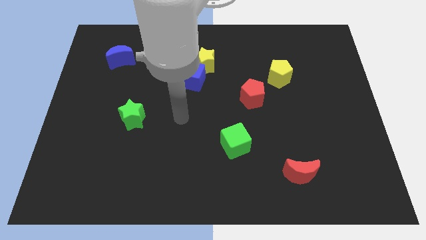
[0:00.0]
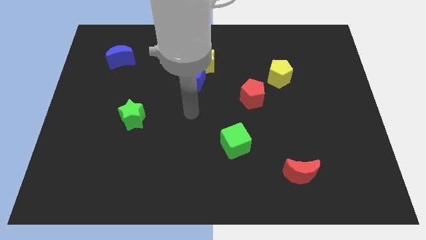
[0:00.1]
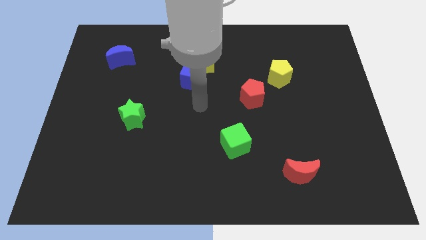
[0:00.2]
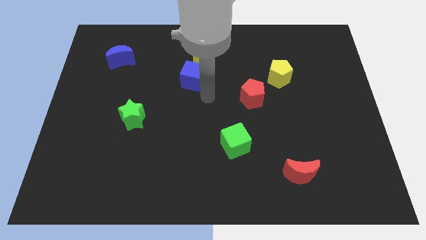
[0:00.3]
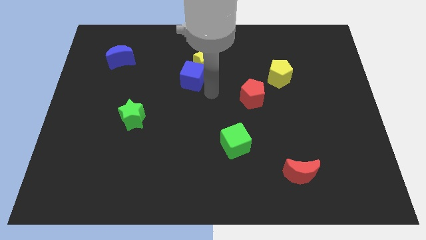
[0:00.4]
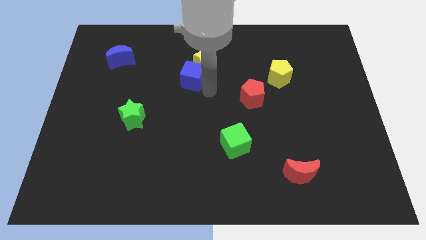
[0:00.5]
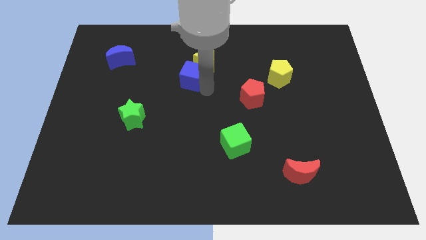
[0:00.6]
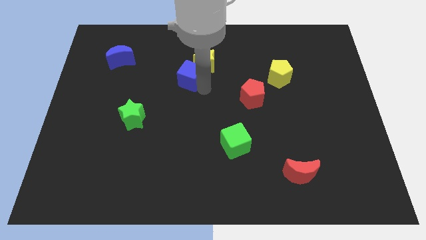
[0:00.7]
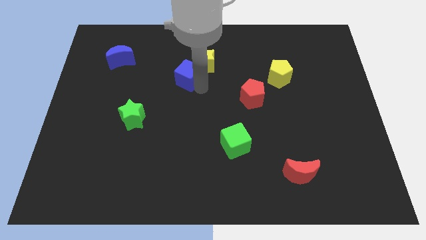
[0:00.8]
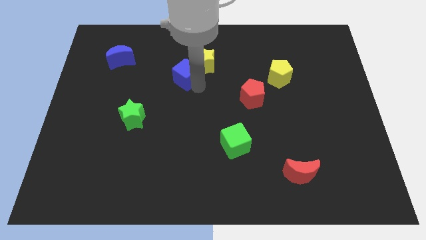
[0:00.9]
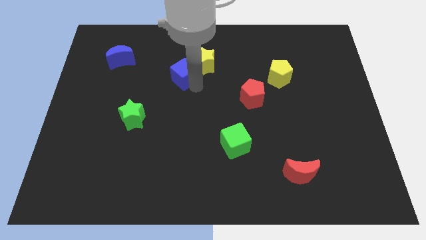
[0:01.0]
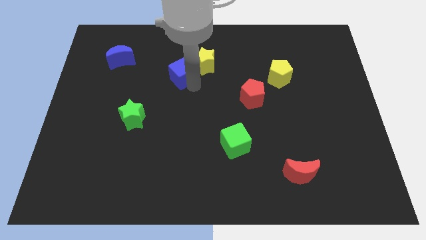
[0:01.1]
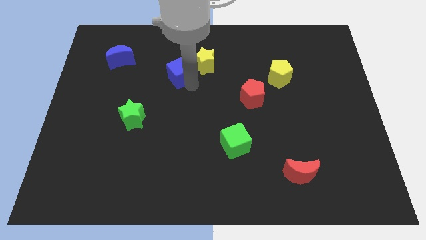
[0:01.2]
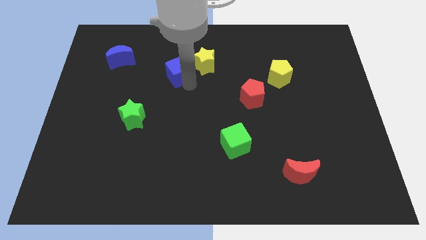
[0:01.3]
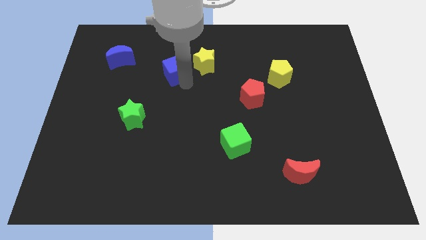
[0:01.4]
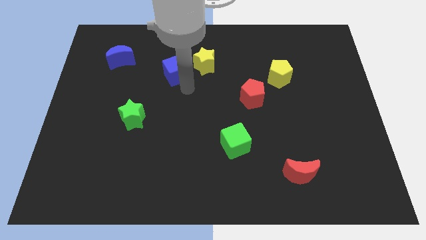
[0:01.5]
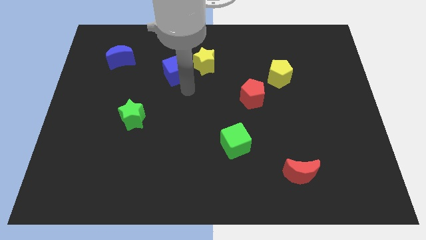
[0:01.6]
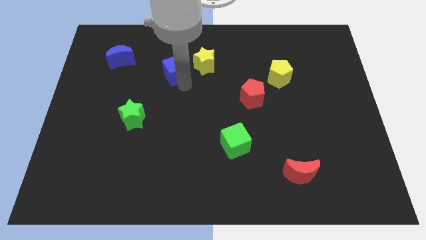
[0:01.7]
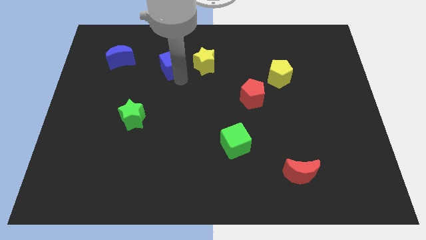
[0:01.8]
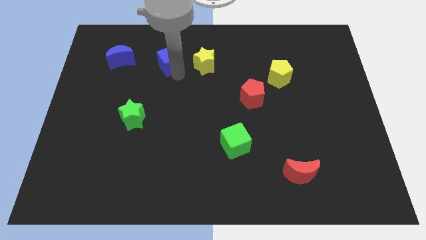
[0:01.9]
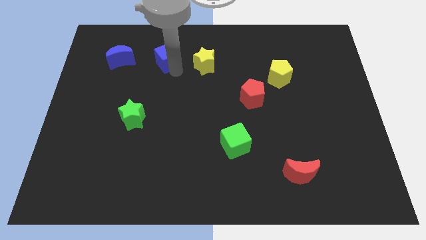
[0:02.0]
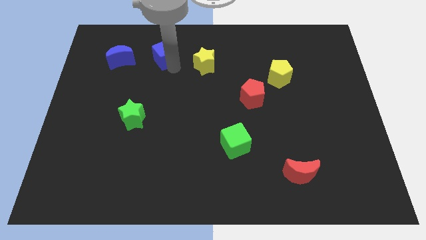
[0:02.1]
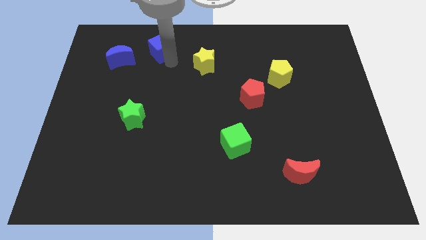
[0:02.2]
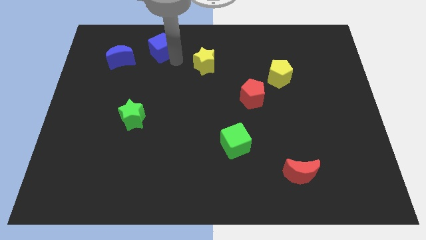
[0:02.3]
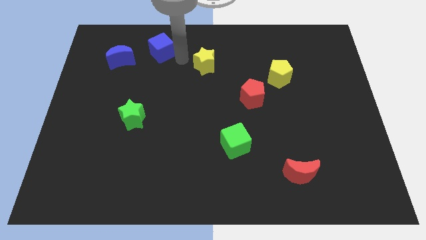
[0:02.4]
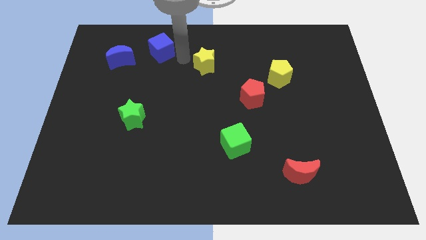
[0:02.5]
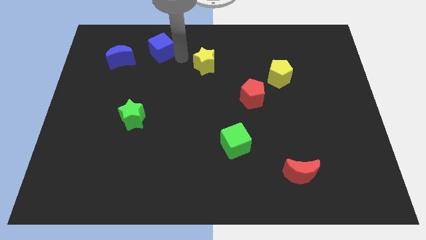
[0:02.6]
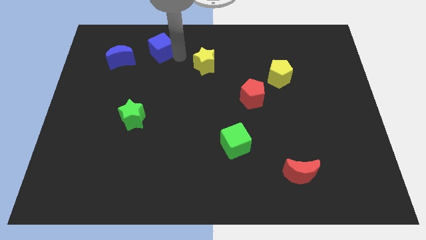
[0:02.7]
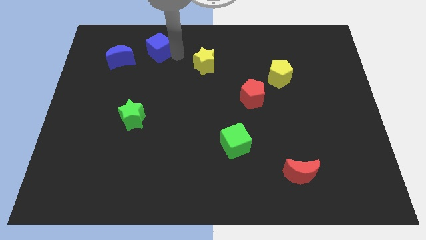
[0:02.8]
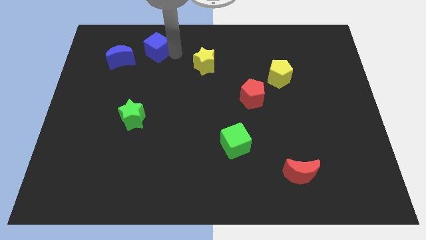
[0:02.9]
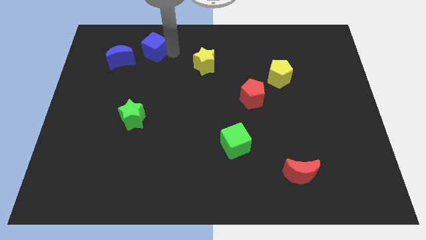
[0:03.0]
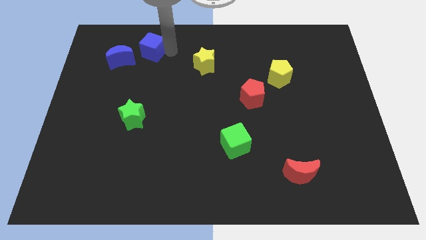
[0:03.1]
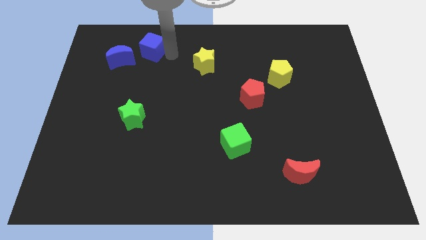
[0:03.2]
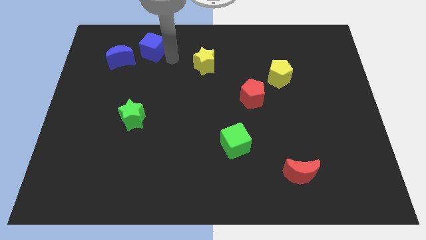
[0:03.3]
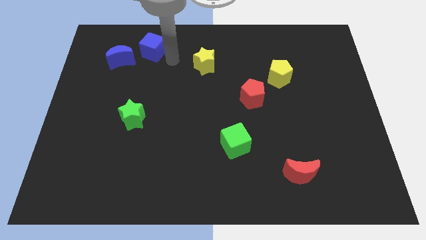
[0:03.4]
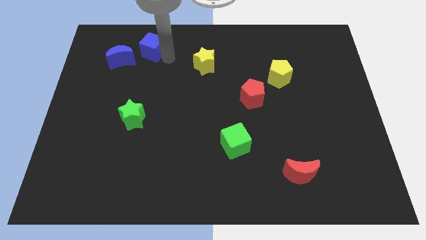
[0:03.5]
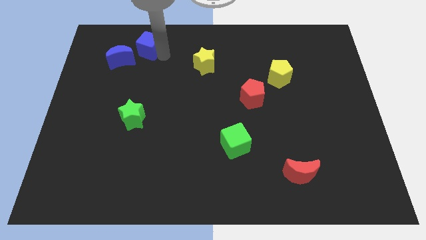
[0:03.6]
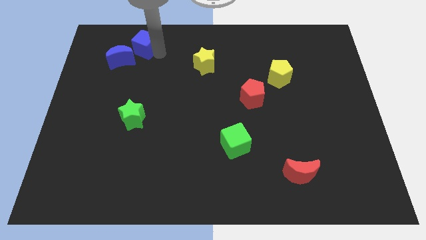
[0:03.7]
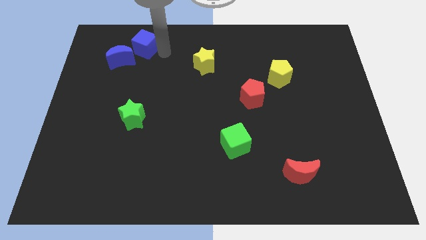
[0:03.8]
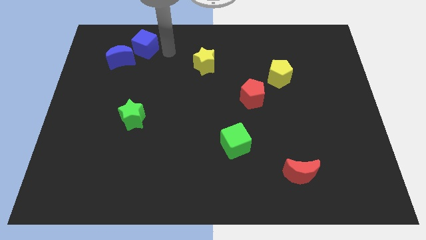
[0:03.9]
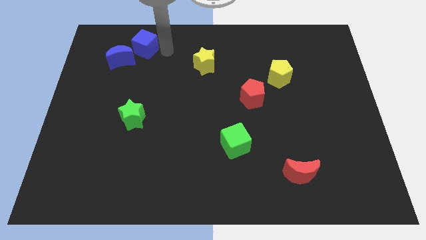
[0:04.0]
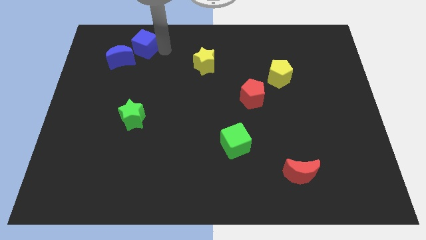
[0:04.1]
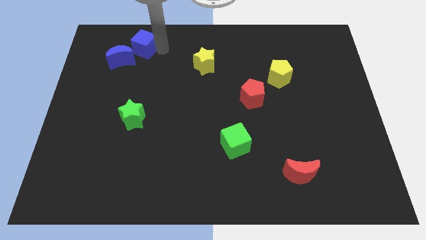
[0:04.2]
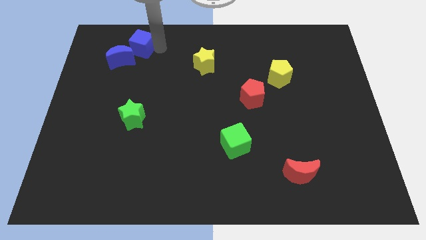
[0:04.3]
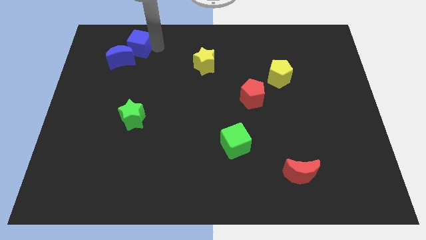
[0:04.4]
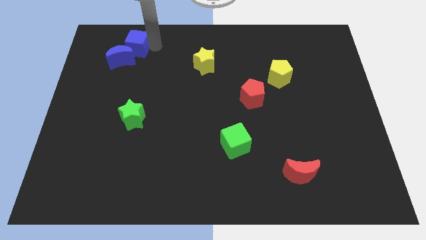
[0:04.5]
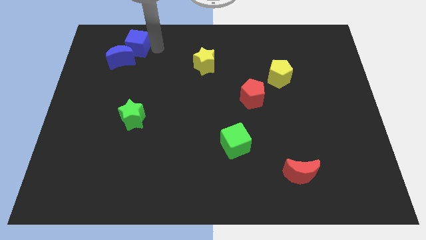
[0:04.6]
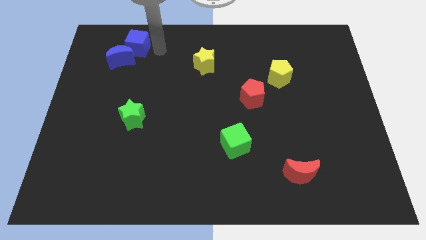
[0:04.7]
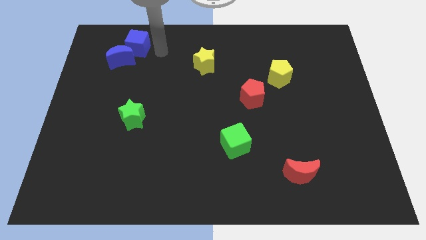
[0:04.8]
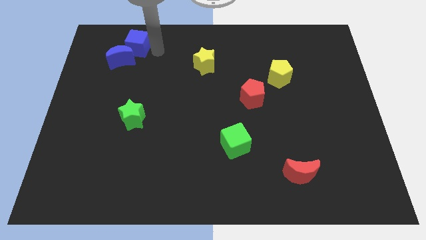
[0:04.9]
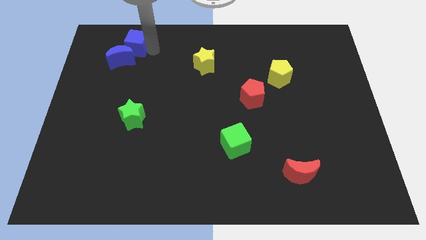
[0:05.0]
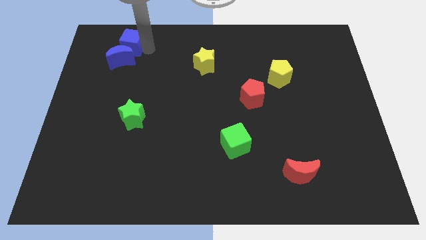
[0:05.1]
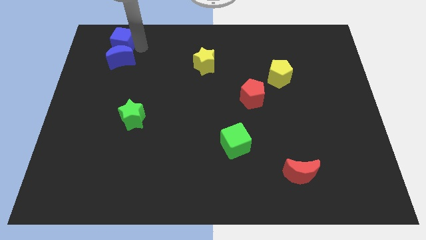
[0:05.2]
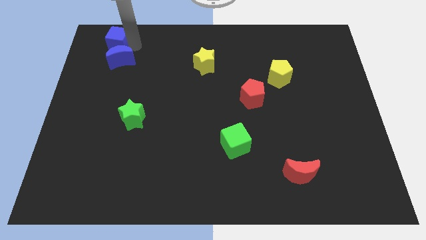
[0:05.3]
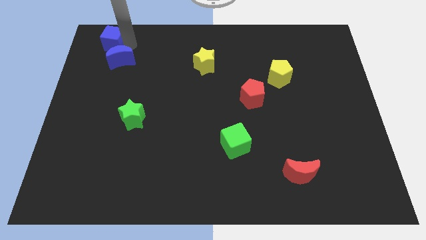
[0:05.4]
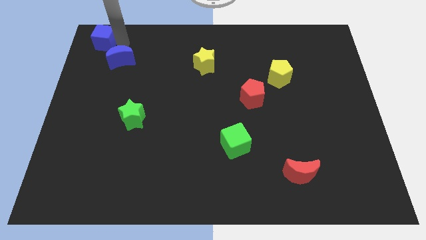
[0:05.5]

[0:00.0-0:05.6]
move the blue cube to the top left corner
